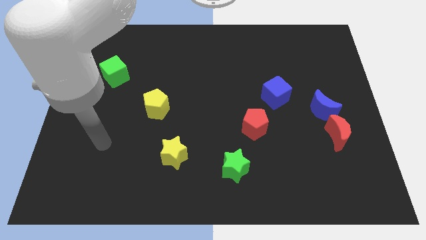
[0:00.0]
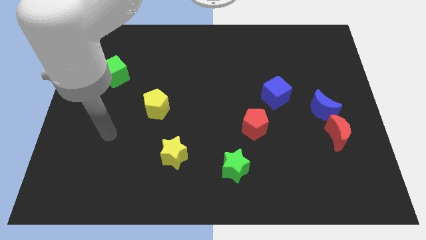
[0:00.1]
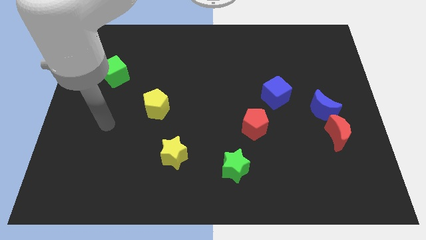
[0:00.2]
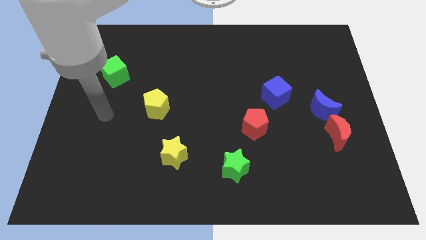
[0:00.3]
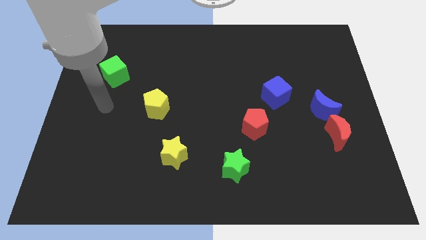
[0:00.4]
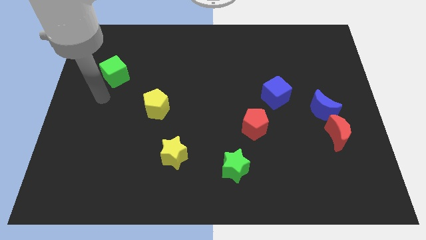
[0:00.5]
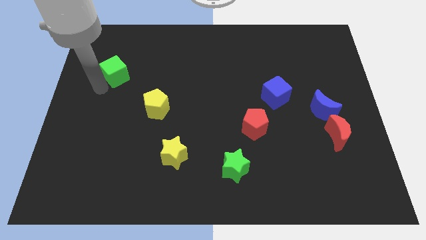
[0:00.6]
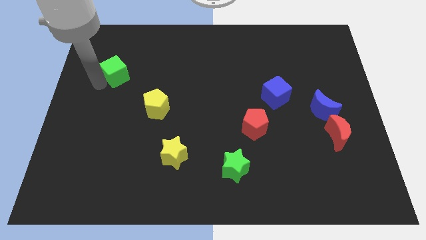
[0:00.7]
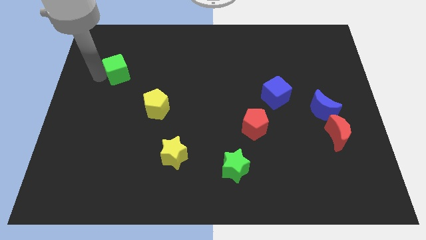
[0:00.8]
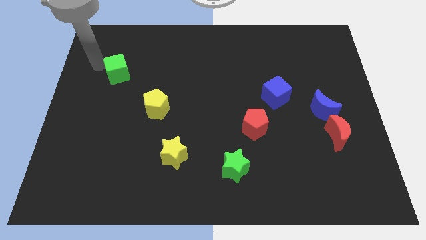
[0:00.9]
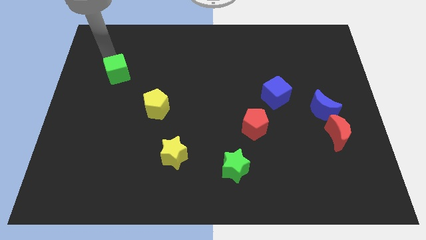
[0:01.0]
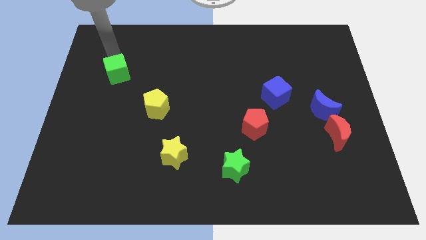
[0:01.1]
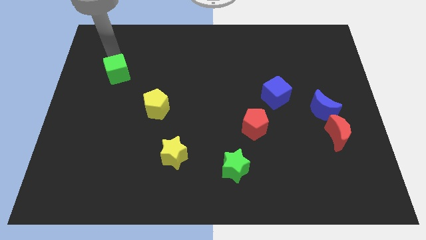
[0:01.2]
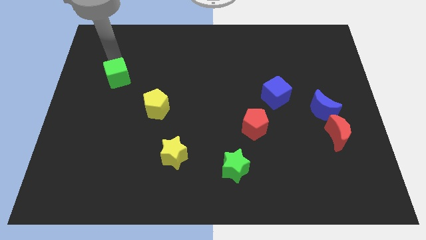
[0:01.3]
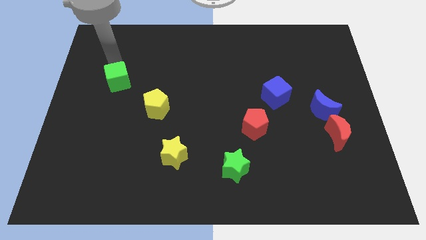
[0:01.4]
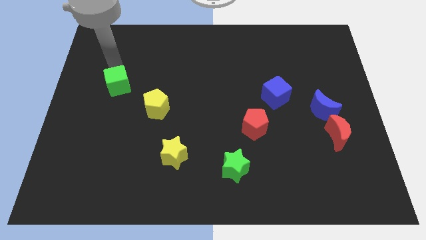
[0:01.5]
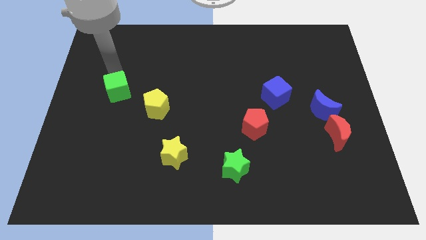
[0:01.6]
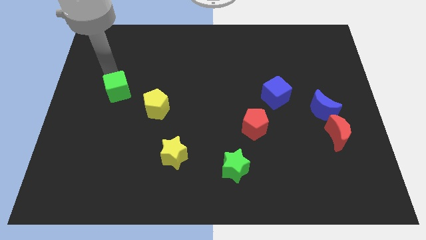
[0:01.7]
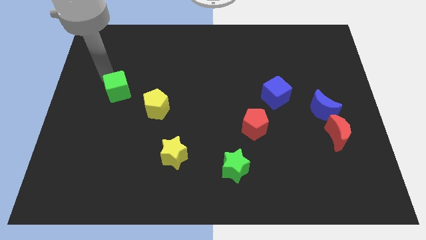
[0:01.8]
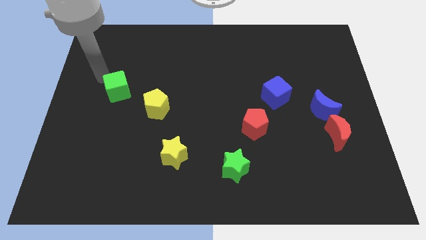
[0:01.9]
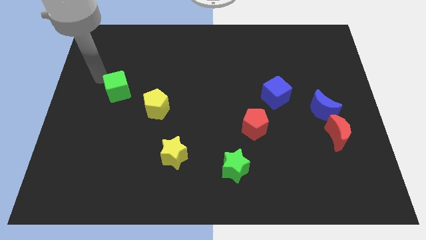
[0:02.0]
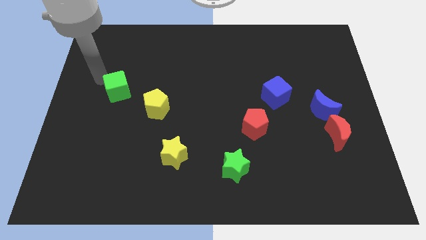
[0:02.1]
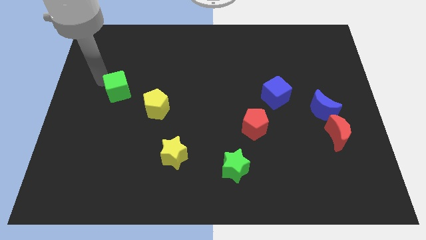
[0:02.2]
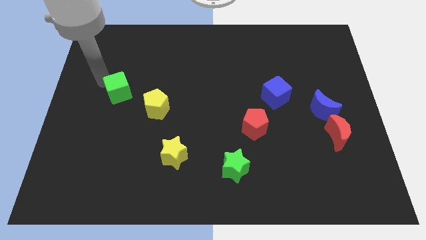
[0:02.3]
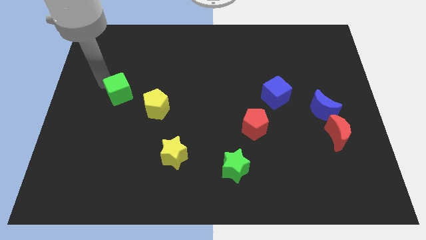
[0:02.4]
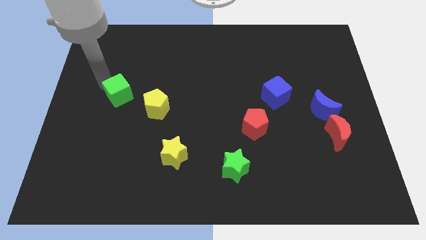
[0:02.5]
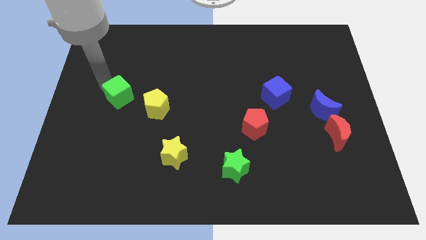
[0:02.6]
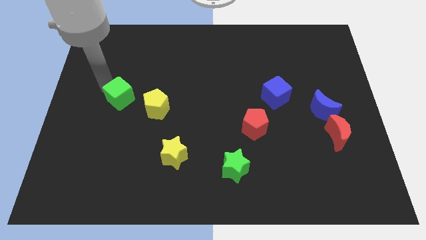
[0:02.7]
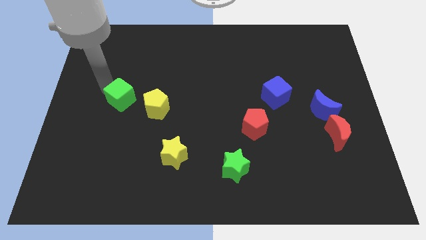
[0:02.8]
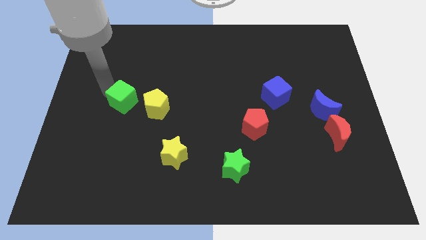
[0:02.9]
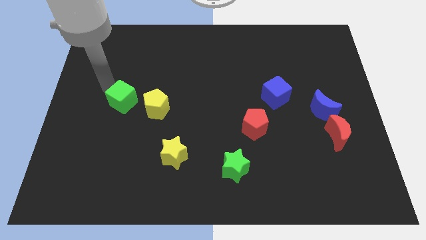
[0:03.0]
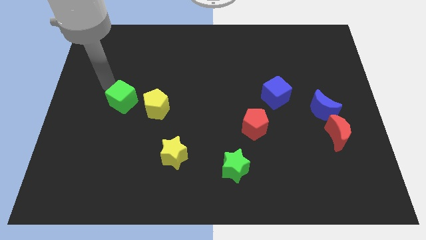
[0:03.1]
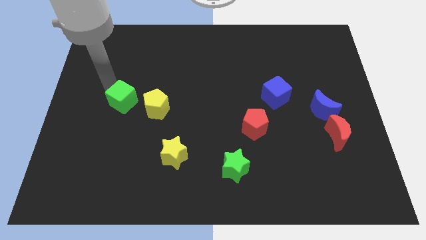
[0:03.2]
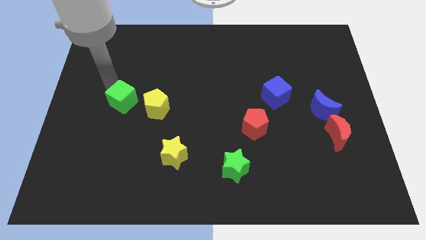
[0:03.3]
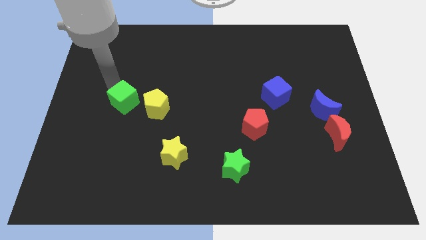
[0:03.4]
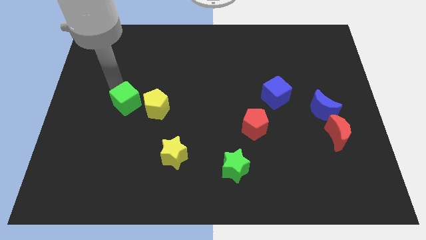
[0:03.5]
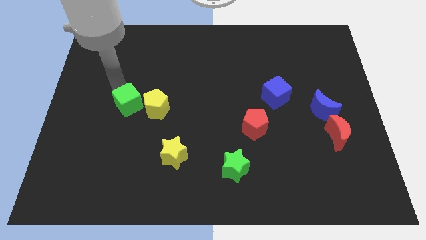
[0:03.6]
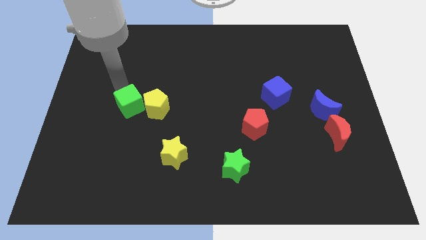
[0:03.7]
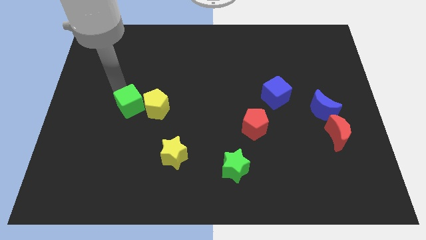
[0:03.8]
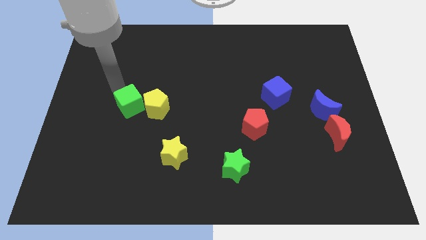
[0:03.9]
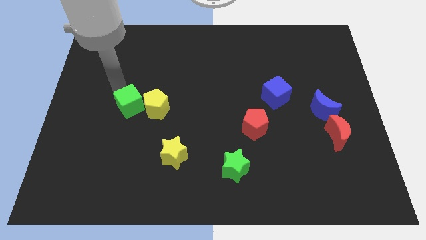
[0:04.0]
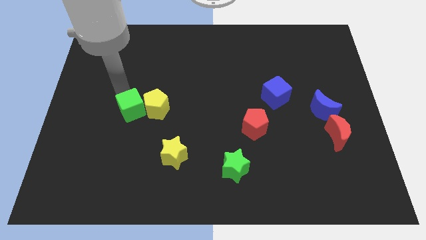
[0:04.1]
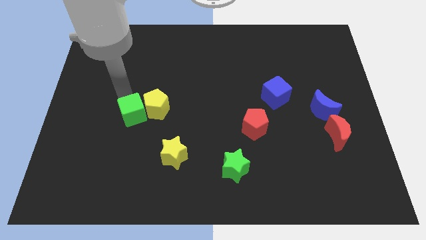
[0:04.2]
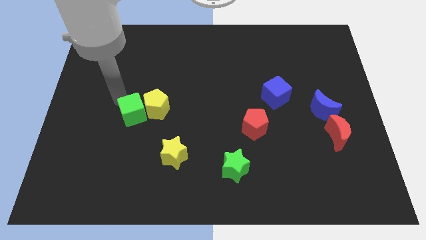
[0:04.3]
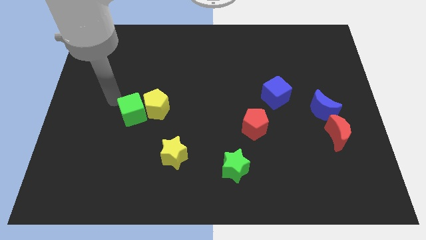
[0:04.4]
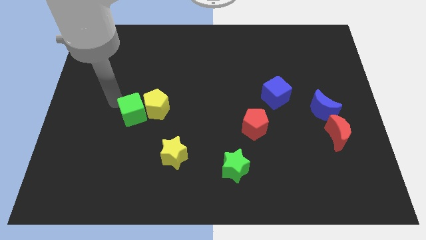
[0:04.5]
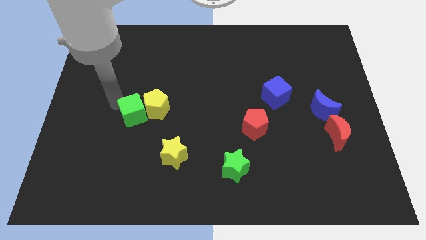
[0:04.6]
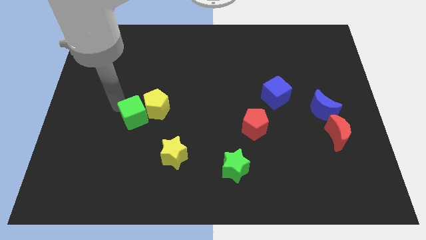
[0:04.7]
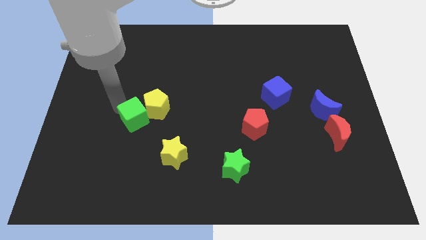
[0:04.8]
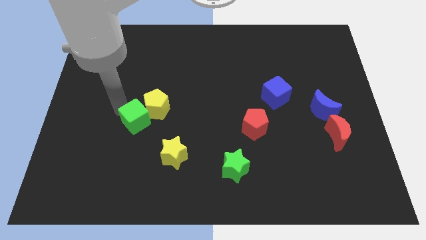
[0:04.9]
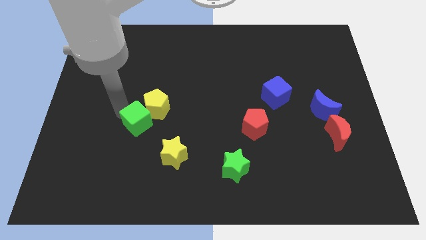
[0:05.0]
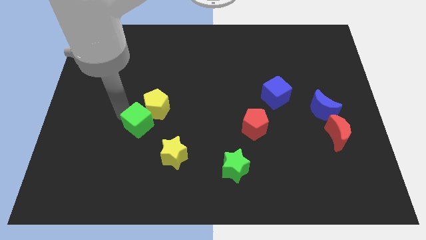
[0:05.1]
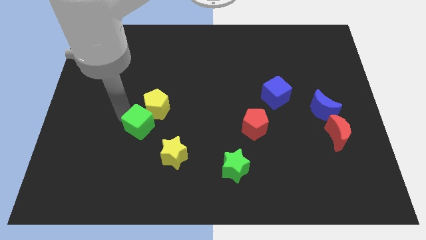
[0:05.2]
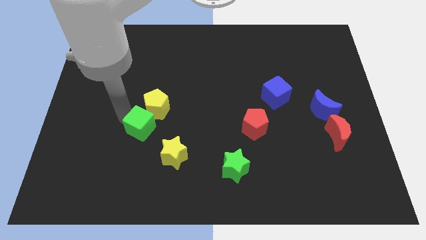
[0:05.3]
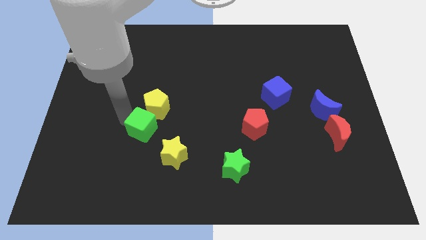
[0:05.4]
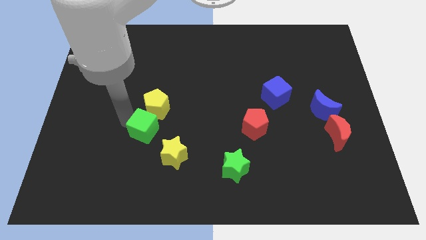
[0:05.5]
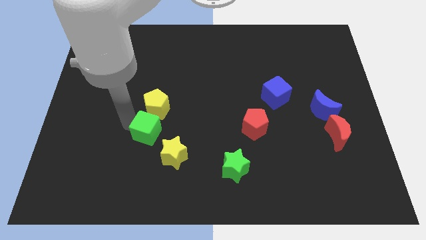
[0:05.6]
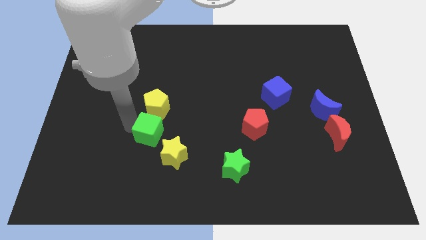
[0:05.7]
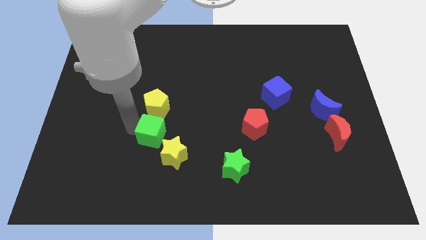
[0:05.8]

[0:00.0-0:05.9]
push the green cube diagonally down and right

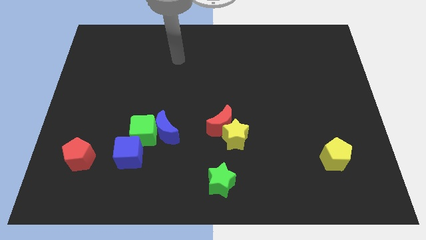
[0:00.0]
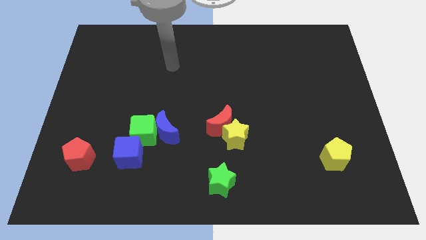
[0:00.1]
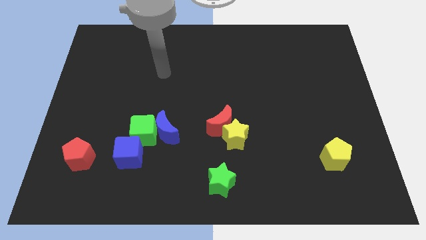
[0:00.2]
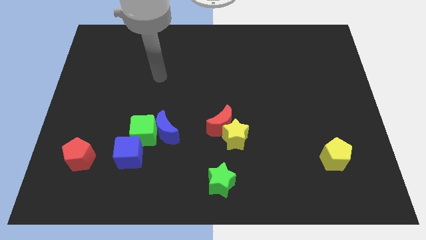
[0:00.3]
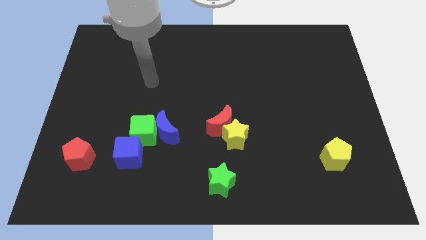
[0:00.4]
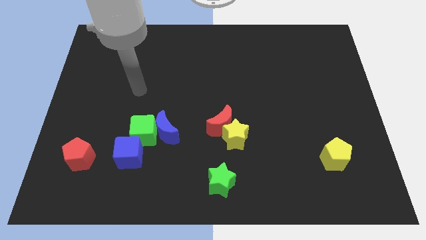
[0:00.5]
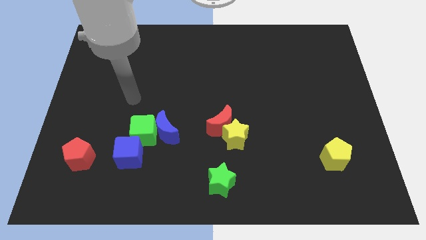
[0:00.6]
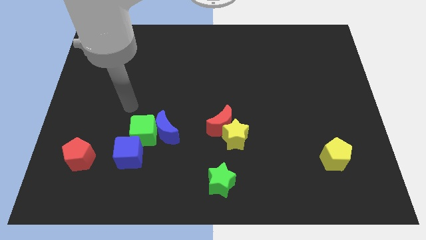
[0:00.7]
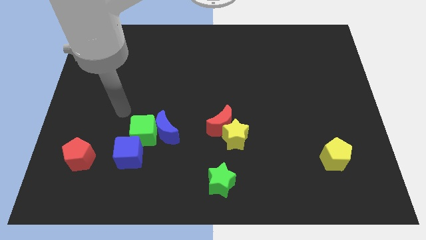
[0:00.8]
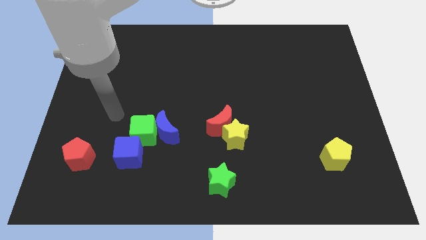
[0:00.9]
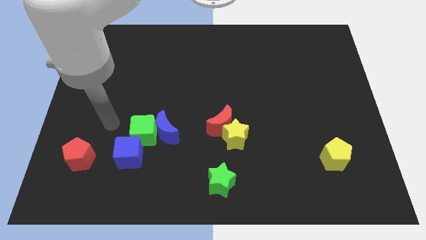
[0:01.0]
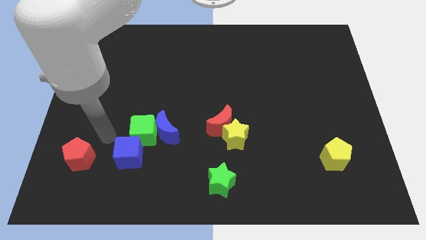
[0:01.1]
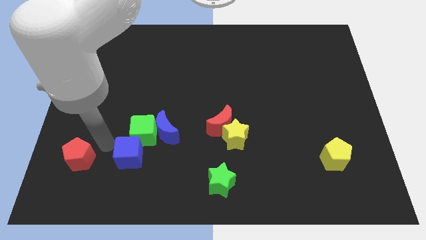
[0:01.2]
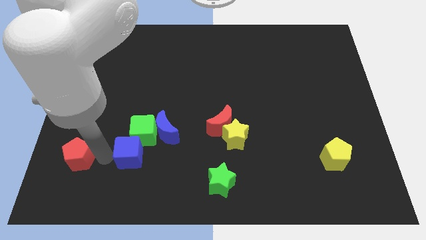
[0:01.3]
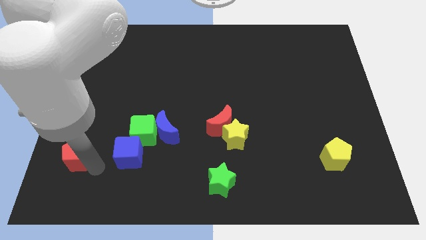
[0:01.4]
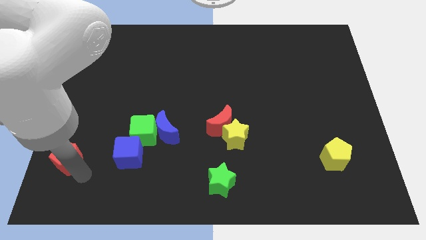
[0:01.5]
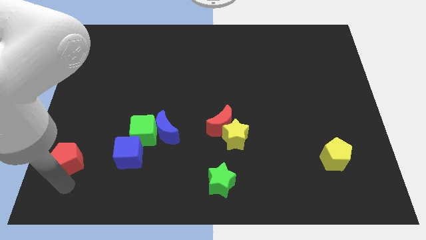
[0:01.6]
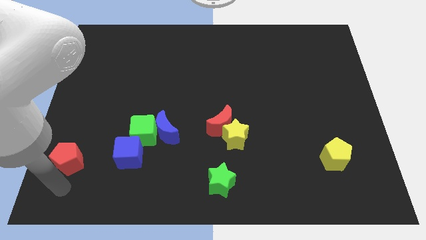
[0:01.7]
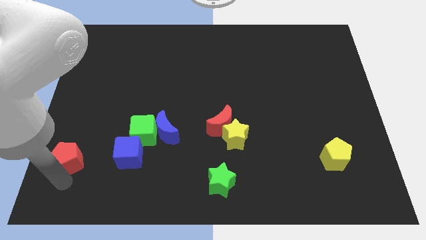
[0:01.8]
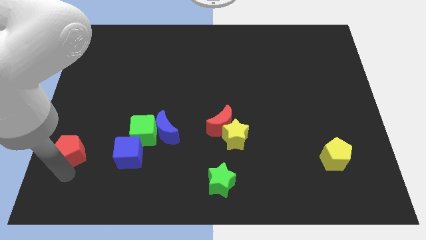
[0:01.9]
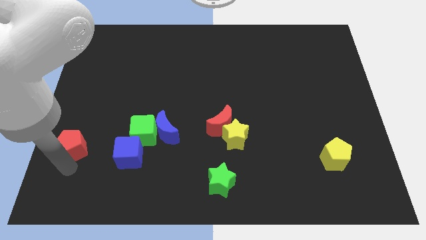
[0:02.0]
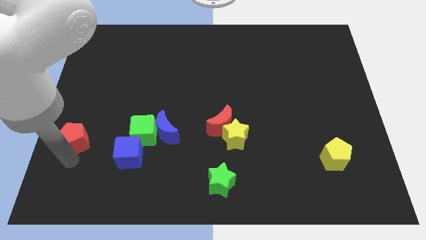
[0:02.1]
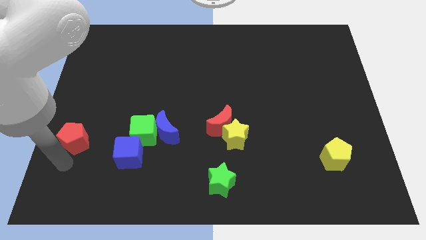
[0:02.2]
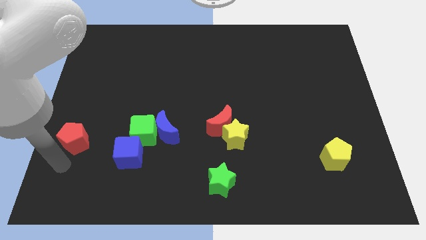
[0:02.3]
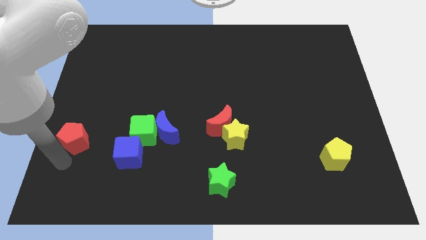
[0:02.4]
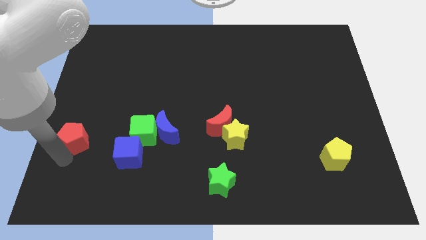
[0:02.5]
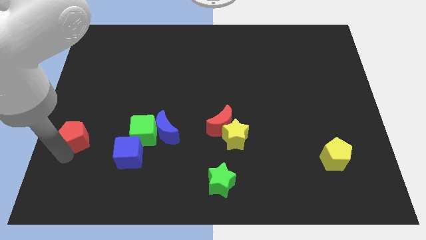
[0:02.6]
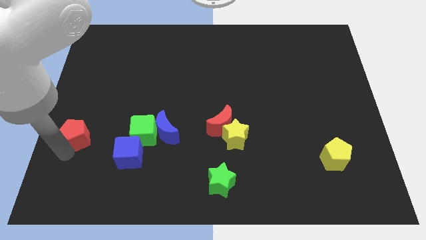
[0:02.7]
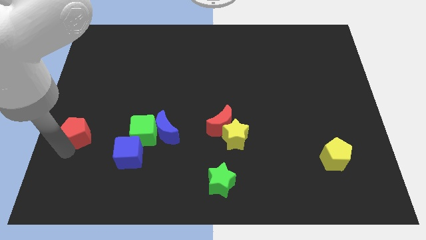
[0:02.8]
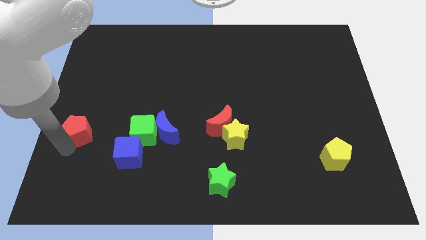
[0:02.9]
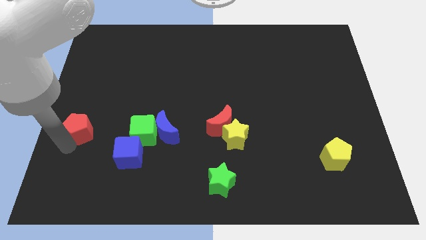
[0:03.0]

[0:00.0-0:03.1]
move the red pentagon upwards a little
